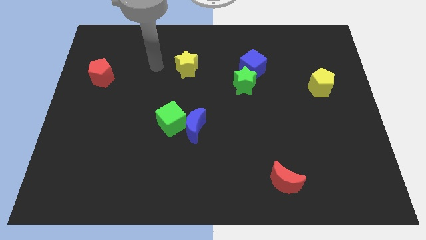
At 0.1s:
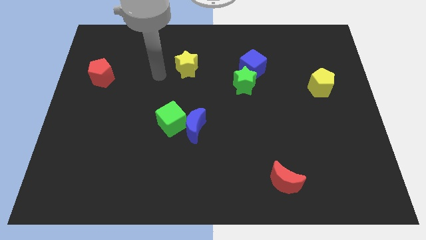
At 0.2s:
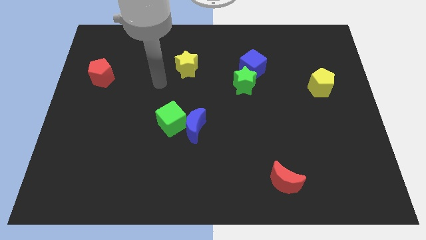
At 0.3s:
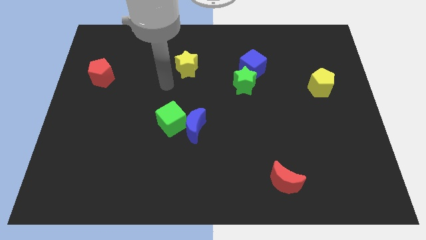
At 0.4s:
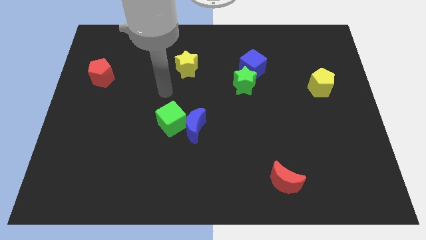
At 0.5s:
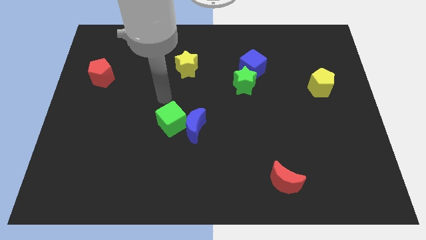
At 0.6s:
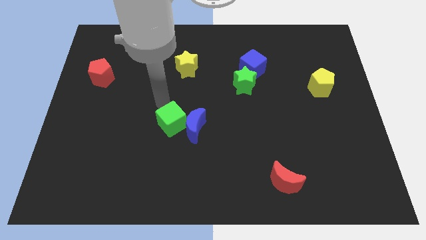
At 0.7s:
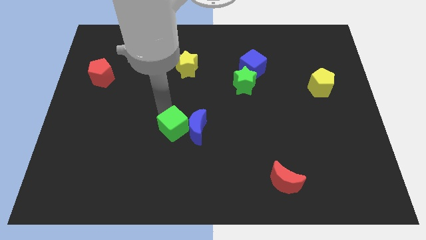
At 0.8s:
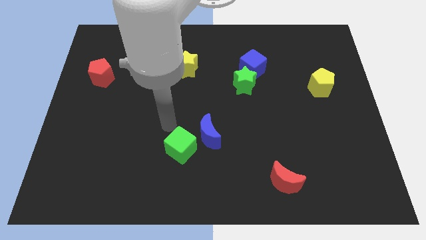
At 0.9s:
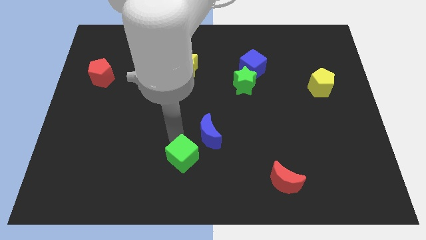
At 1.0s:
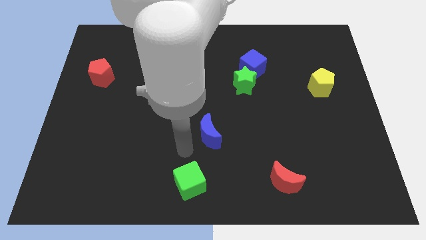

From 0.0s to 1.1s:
move the blue moon away from the green cube

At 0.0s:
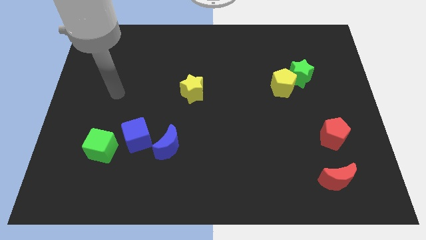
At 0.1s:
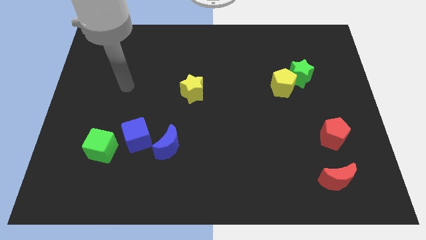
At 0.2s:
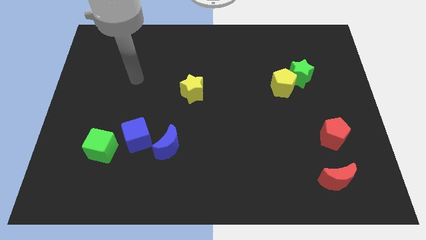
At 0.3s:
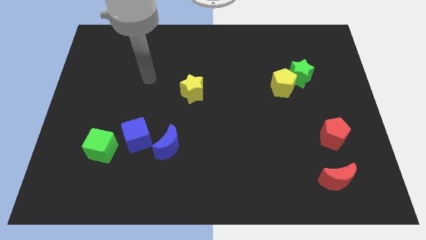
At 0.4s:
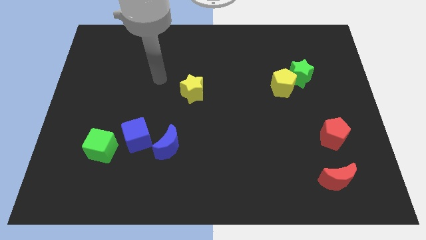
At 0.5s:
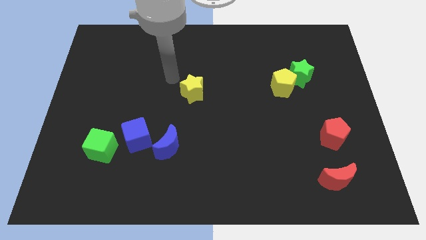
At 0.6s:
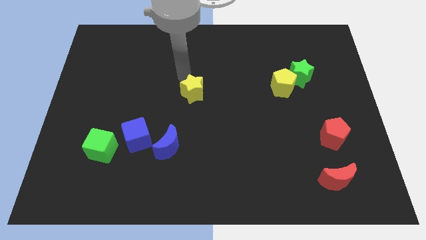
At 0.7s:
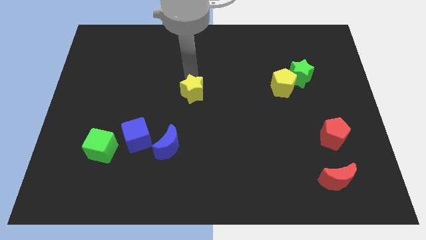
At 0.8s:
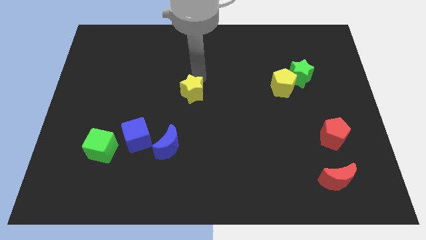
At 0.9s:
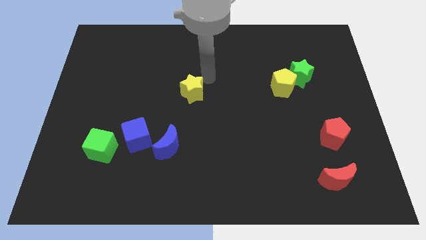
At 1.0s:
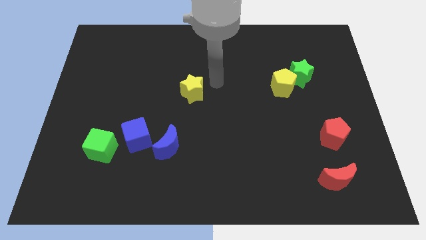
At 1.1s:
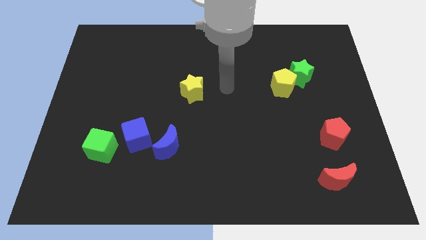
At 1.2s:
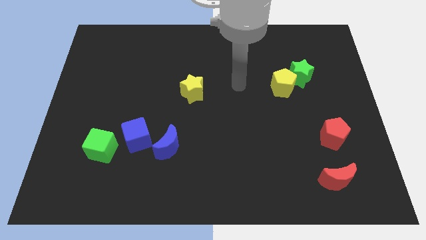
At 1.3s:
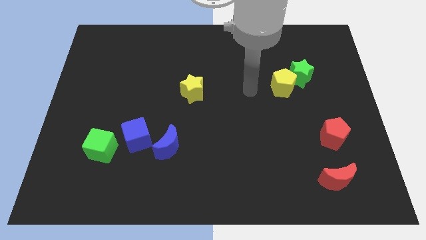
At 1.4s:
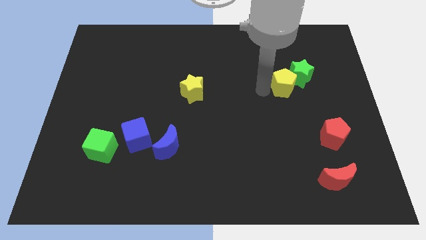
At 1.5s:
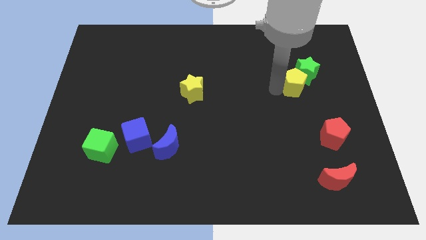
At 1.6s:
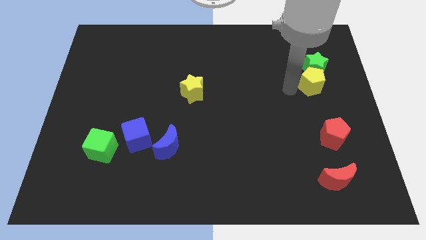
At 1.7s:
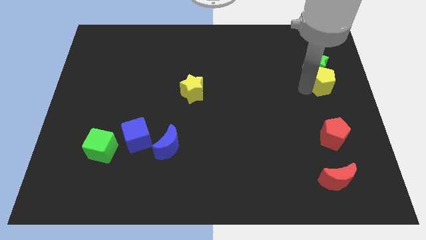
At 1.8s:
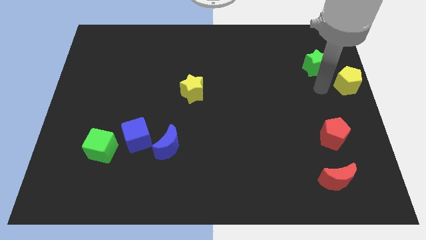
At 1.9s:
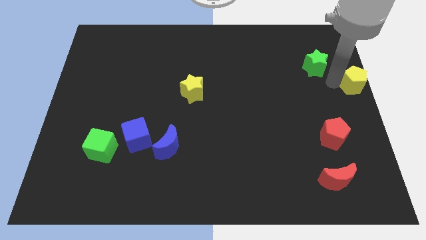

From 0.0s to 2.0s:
pull the green star apart from the yellow pentagon

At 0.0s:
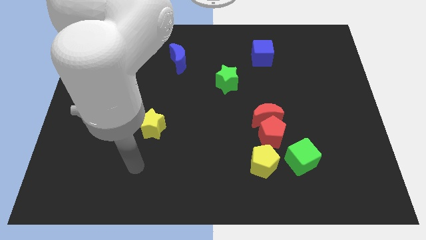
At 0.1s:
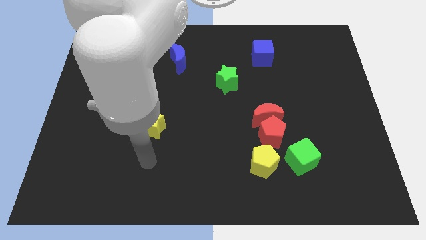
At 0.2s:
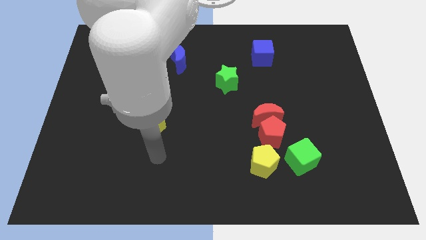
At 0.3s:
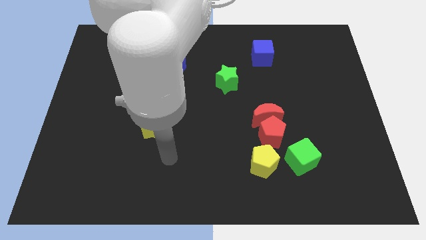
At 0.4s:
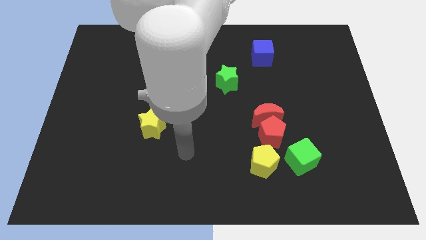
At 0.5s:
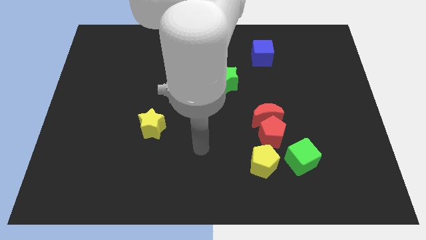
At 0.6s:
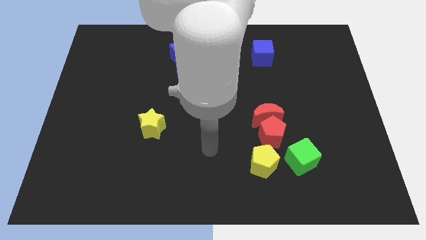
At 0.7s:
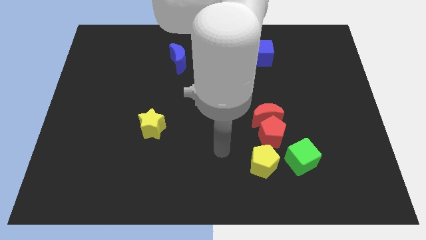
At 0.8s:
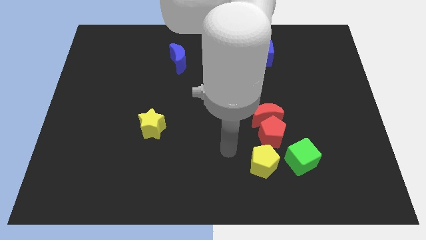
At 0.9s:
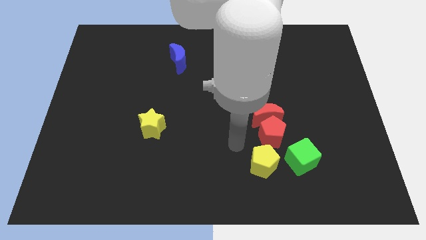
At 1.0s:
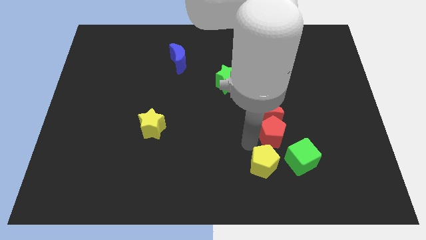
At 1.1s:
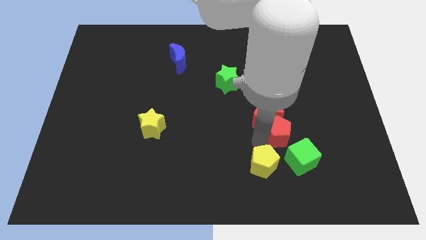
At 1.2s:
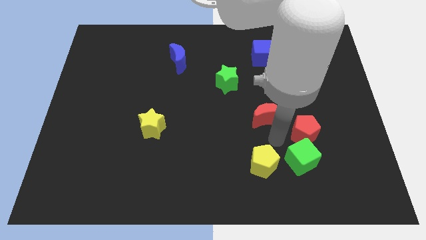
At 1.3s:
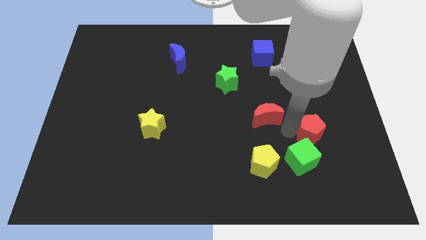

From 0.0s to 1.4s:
pull the red moon apart from the red pentagon

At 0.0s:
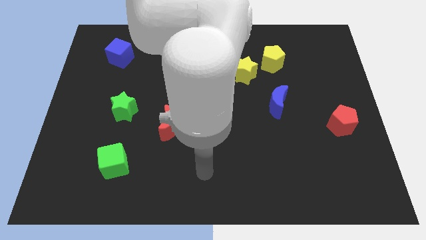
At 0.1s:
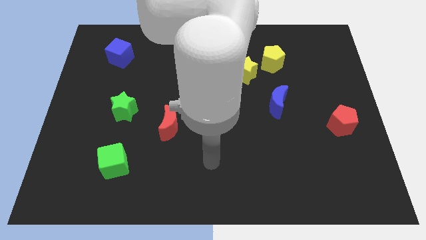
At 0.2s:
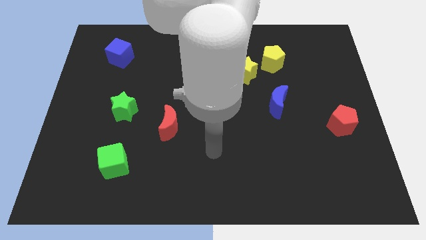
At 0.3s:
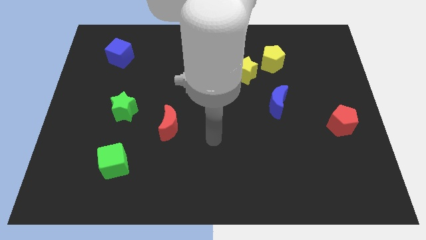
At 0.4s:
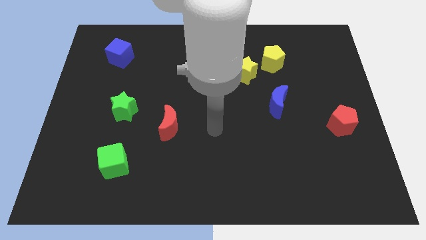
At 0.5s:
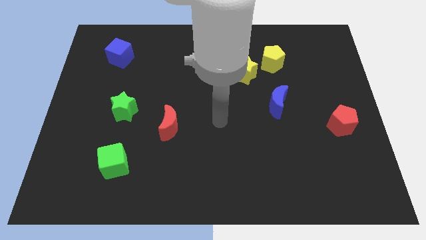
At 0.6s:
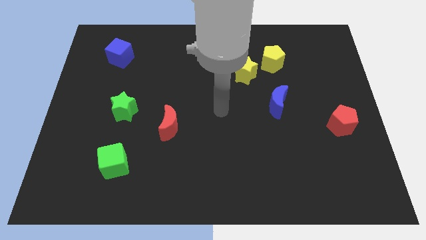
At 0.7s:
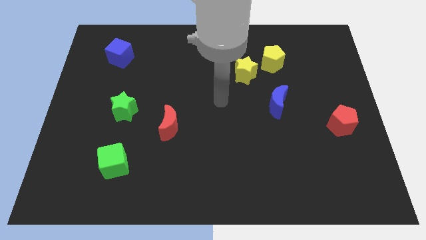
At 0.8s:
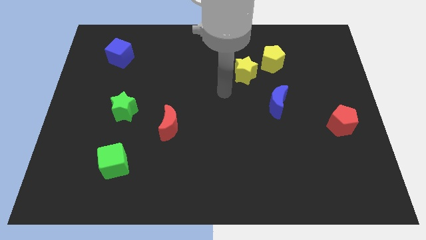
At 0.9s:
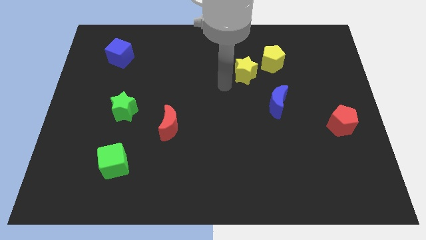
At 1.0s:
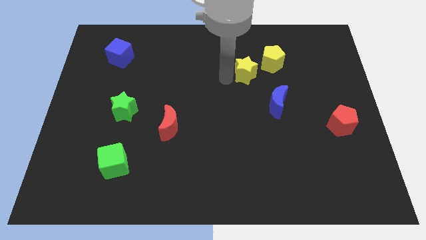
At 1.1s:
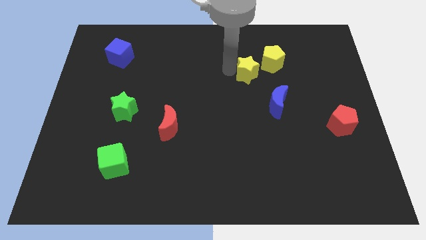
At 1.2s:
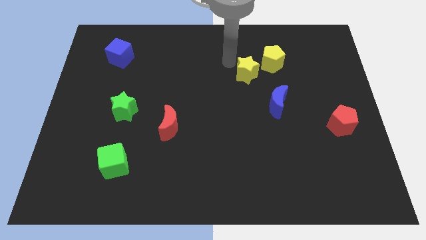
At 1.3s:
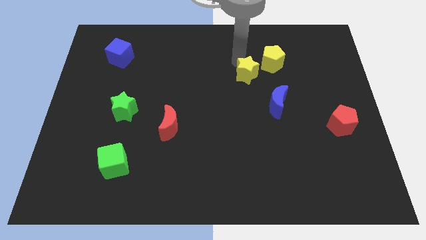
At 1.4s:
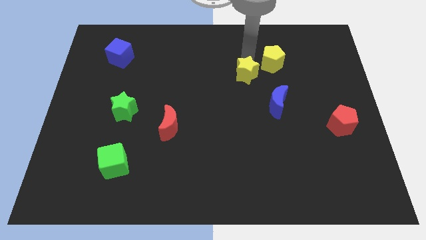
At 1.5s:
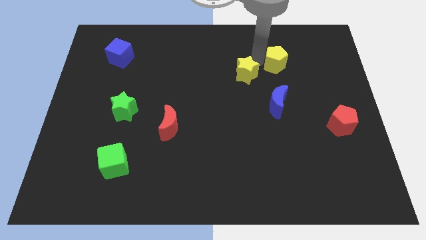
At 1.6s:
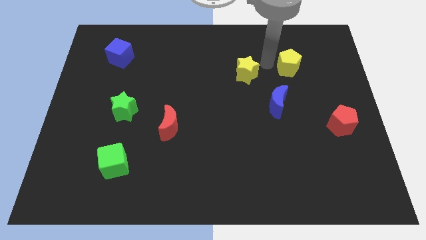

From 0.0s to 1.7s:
separate the yellow star from the yellow pentagon

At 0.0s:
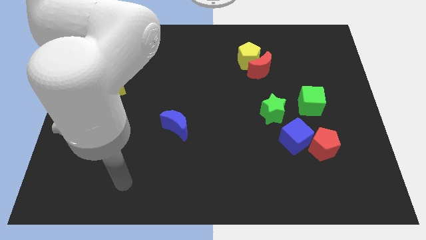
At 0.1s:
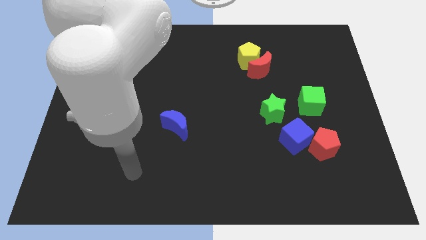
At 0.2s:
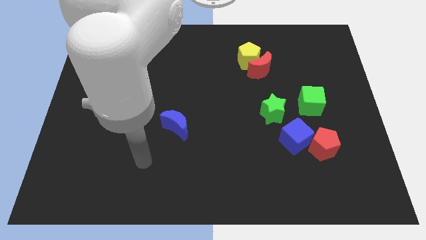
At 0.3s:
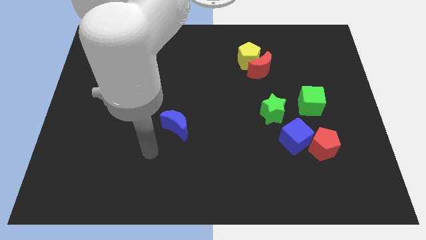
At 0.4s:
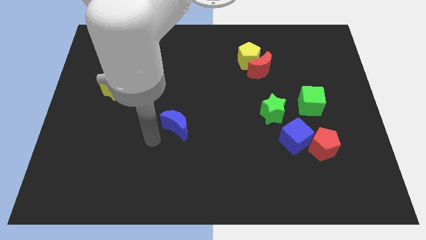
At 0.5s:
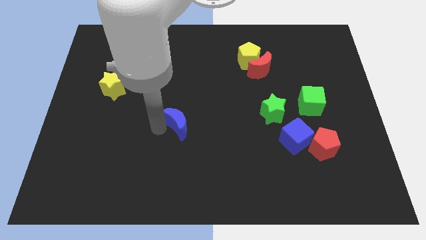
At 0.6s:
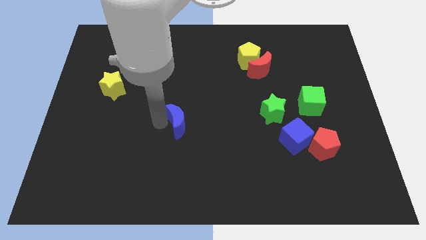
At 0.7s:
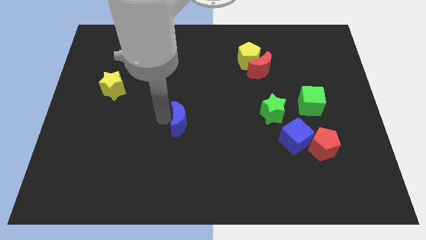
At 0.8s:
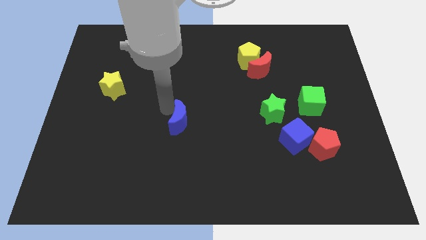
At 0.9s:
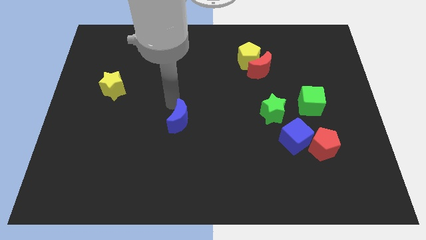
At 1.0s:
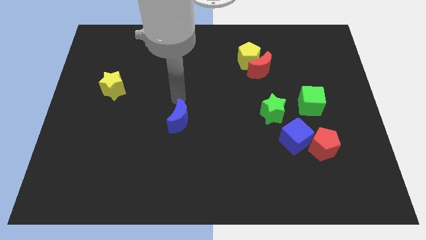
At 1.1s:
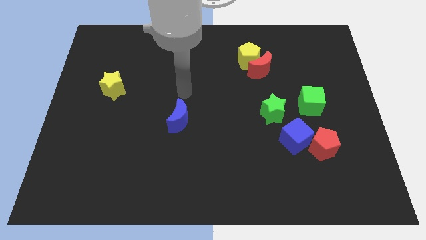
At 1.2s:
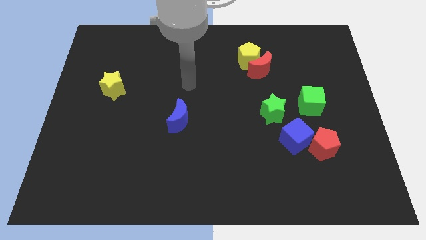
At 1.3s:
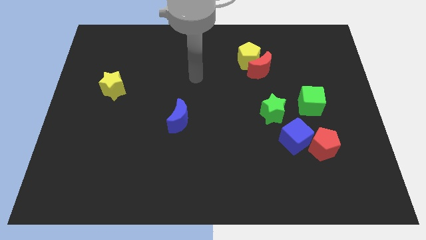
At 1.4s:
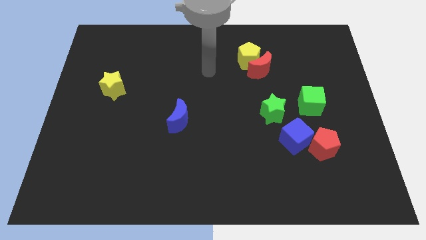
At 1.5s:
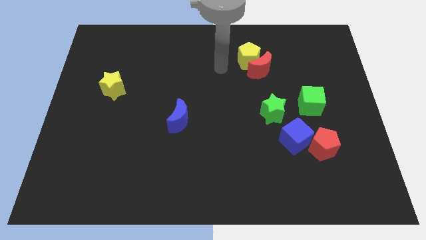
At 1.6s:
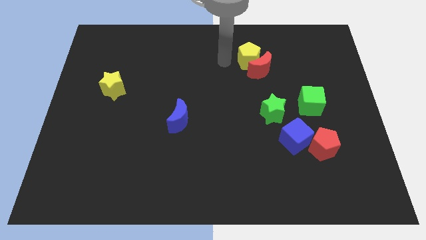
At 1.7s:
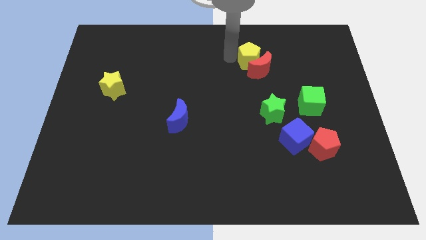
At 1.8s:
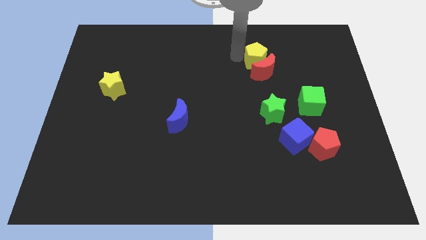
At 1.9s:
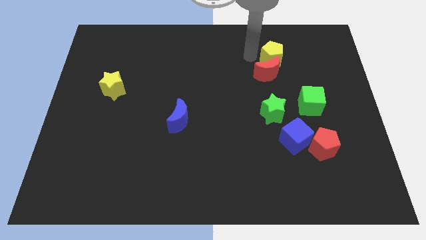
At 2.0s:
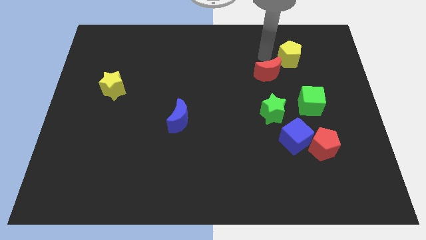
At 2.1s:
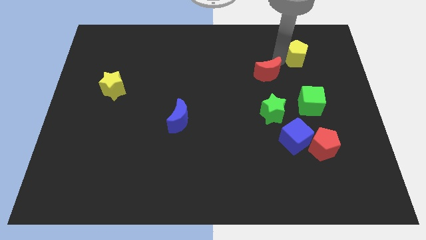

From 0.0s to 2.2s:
separate the red moon from the yellow pentagon

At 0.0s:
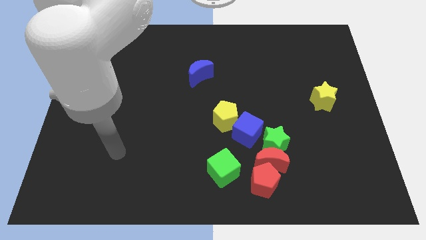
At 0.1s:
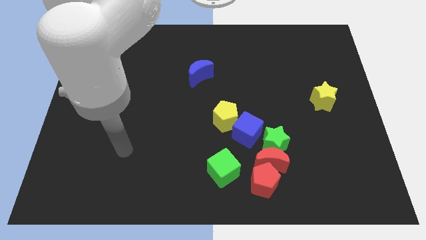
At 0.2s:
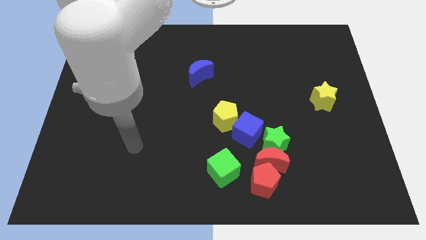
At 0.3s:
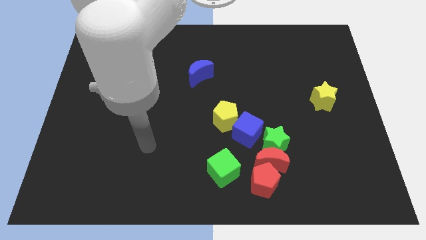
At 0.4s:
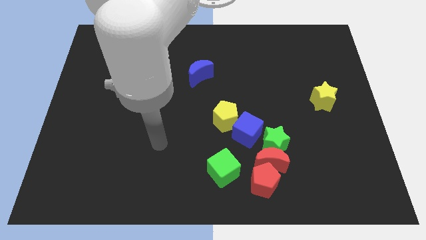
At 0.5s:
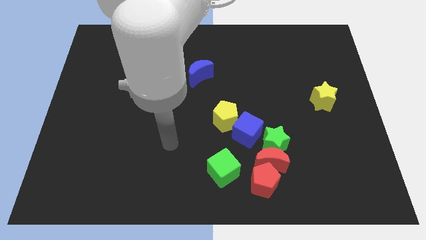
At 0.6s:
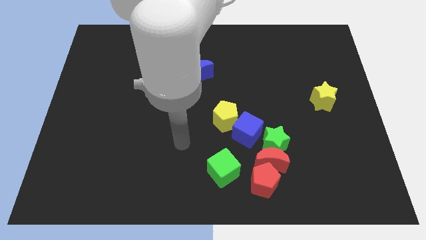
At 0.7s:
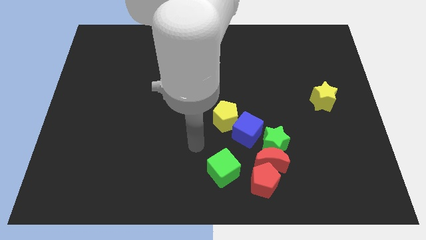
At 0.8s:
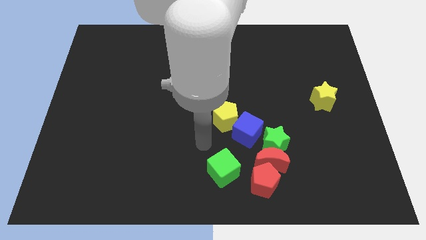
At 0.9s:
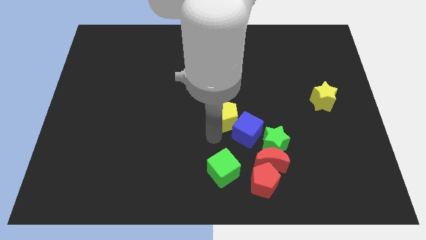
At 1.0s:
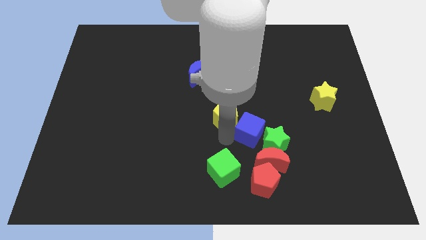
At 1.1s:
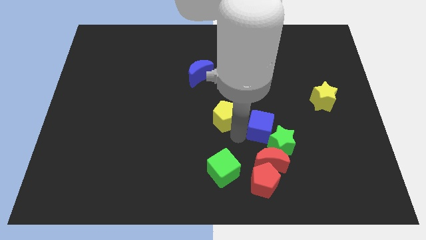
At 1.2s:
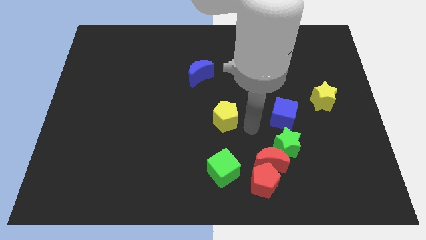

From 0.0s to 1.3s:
pull the yellow pentagon apart from the blue cube
